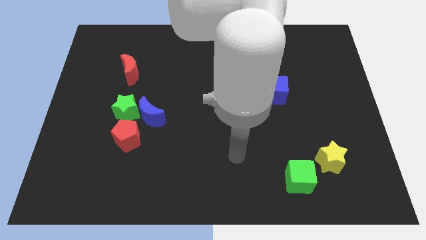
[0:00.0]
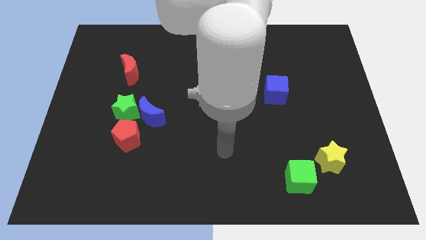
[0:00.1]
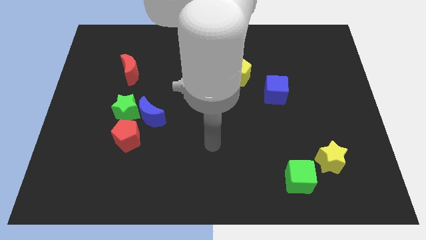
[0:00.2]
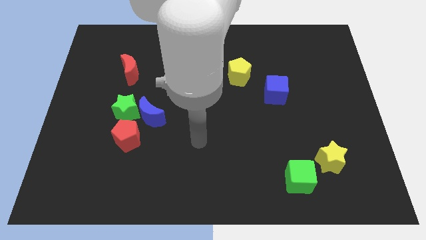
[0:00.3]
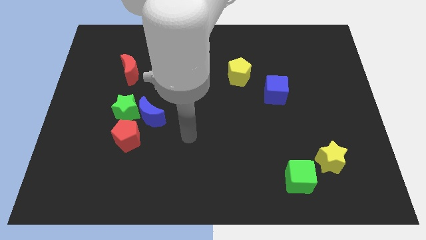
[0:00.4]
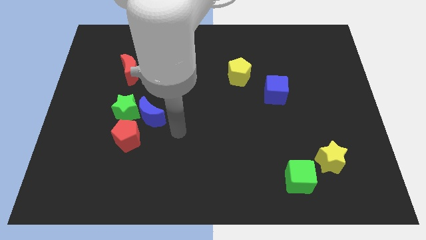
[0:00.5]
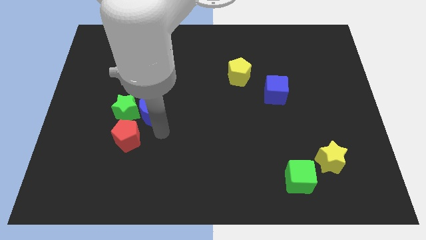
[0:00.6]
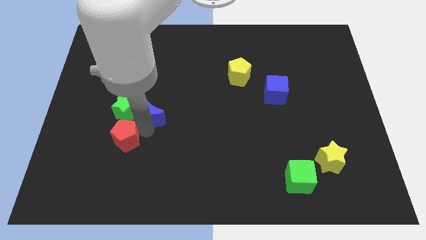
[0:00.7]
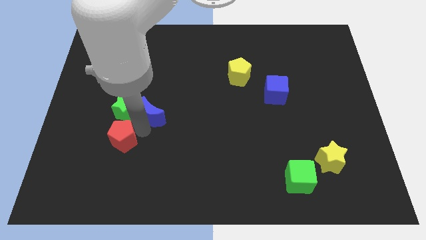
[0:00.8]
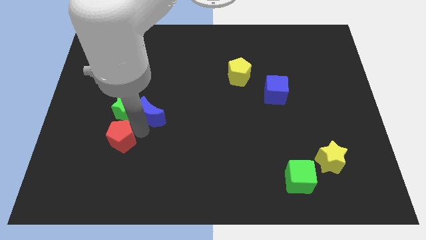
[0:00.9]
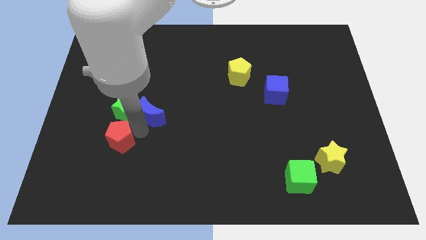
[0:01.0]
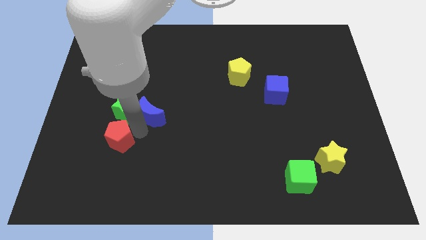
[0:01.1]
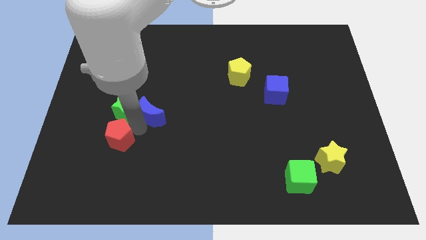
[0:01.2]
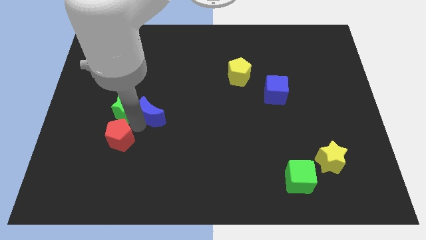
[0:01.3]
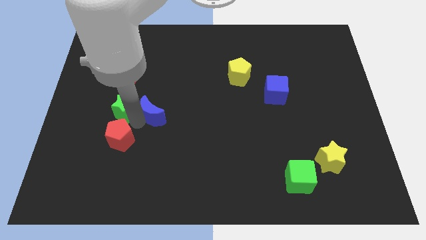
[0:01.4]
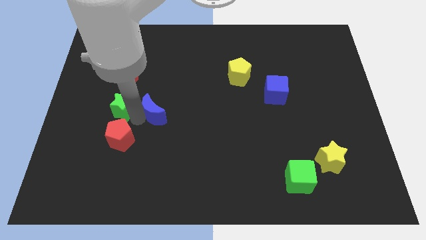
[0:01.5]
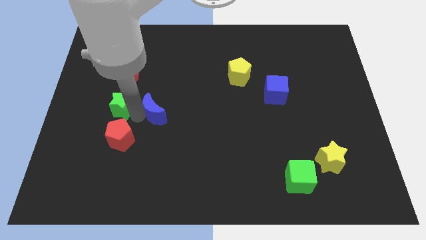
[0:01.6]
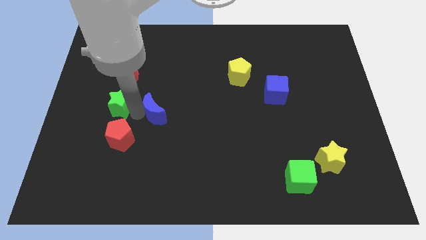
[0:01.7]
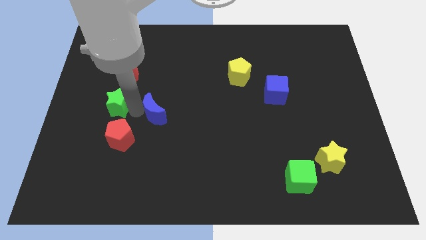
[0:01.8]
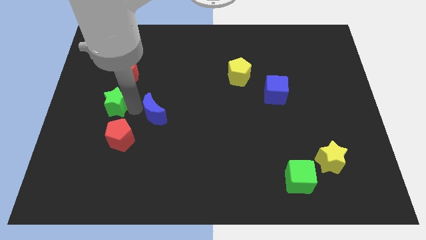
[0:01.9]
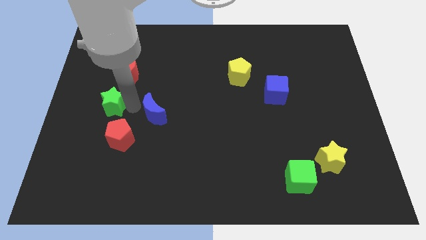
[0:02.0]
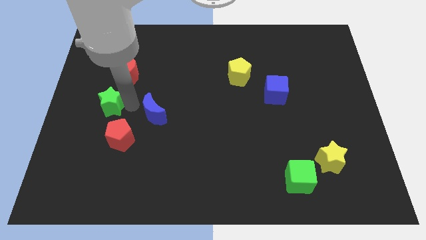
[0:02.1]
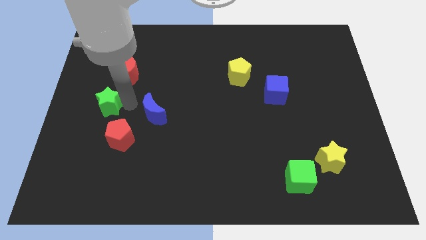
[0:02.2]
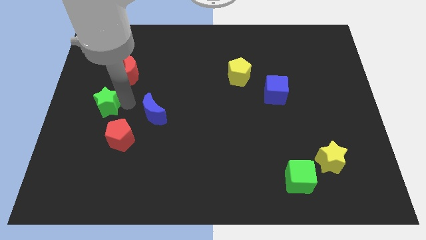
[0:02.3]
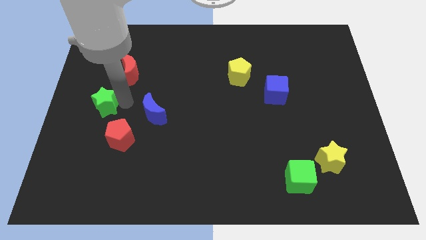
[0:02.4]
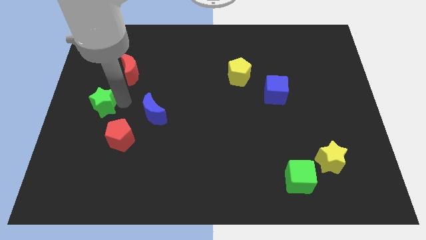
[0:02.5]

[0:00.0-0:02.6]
pull the green star apart from the blue moon and red pentagon

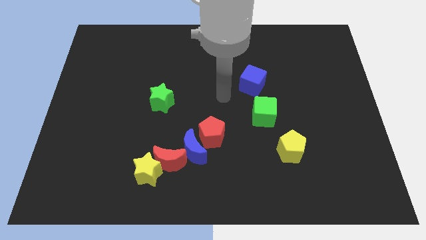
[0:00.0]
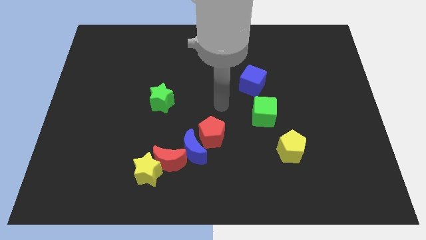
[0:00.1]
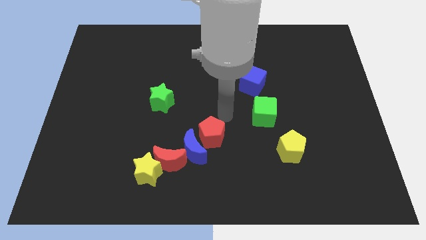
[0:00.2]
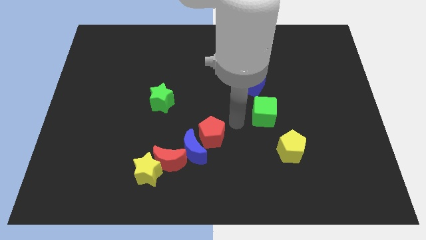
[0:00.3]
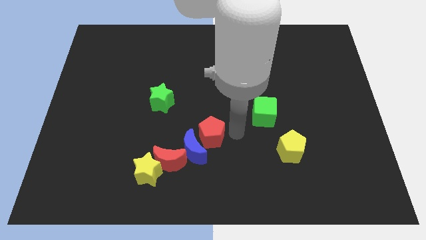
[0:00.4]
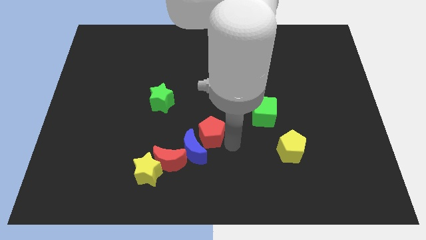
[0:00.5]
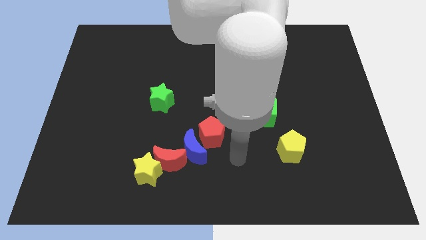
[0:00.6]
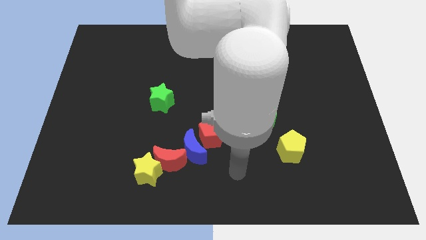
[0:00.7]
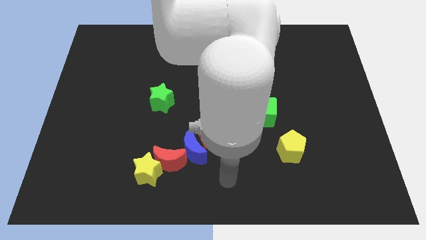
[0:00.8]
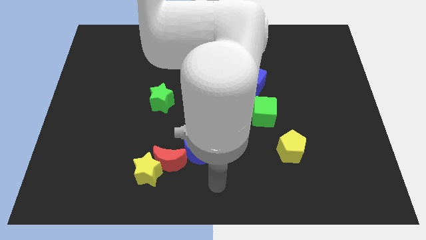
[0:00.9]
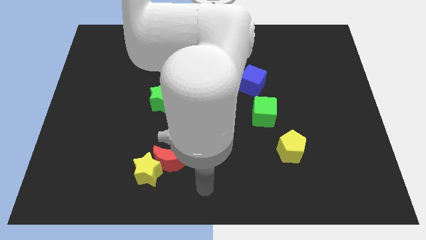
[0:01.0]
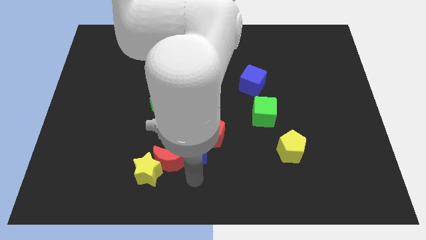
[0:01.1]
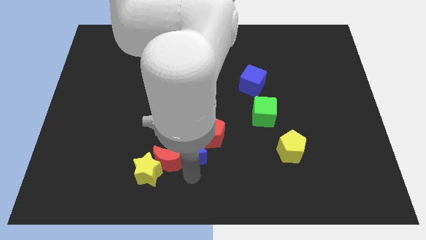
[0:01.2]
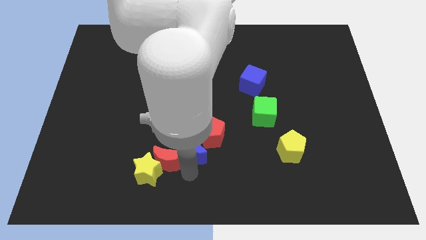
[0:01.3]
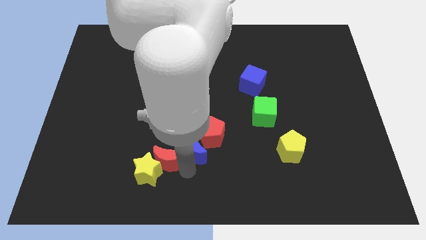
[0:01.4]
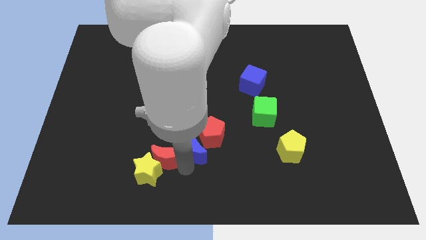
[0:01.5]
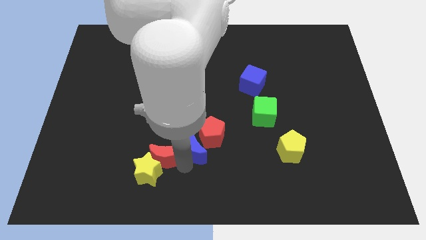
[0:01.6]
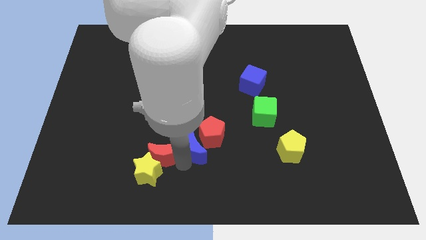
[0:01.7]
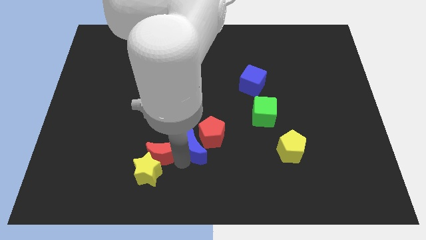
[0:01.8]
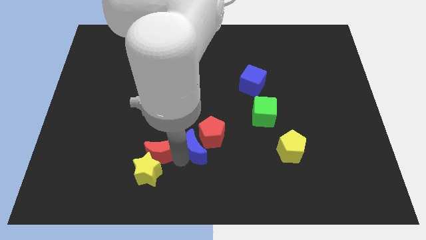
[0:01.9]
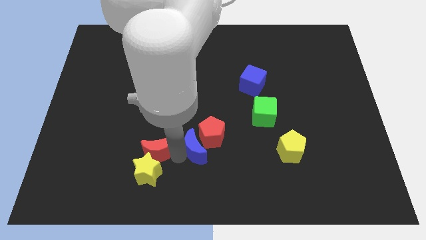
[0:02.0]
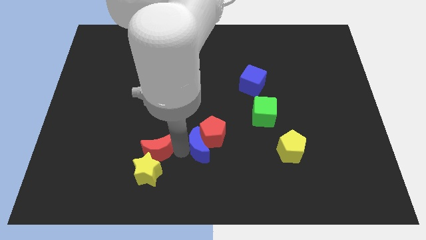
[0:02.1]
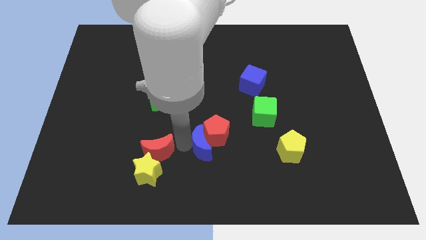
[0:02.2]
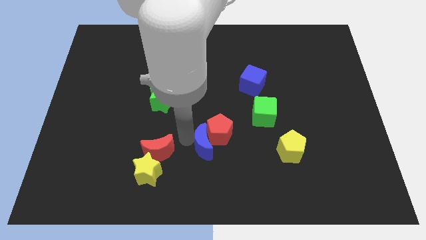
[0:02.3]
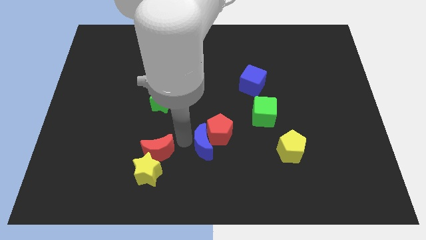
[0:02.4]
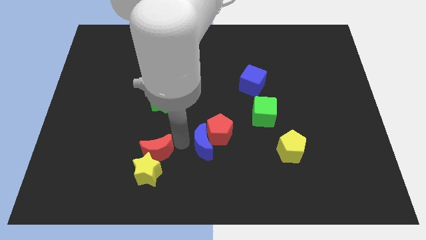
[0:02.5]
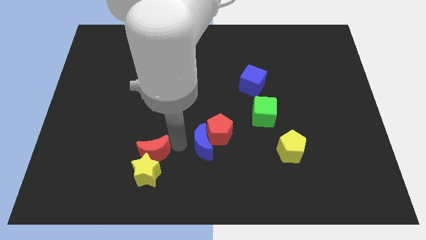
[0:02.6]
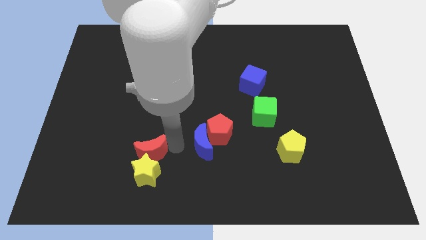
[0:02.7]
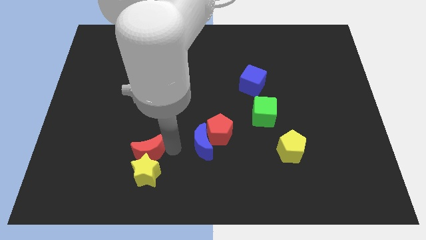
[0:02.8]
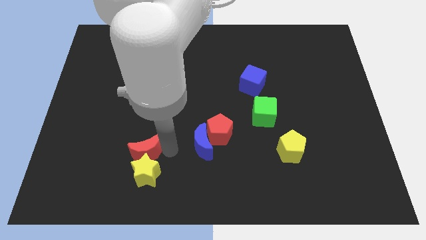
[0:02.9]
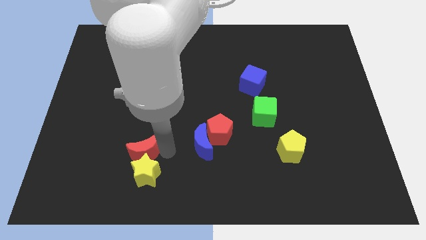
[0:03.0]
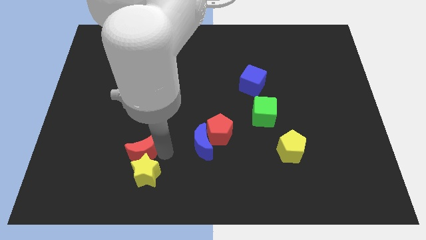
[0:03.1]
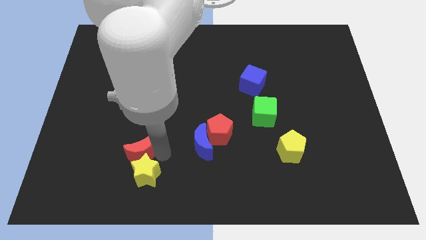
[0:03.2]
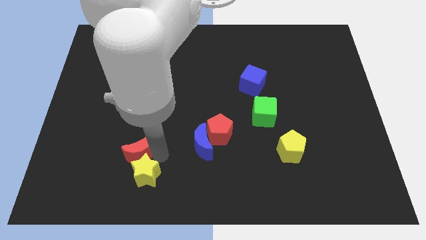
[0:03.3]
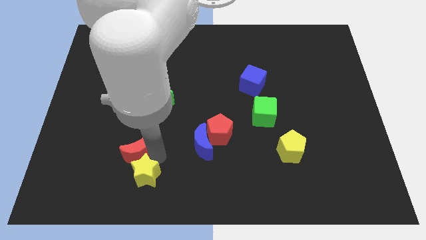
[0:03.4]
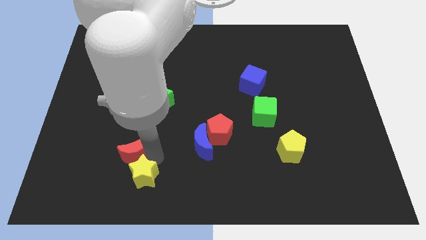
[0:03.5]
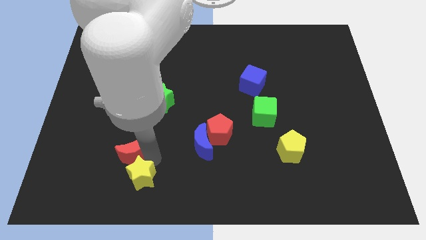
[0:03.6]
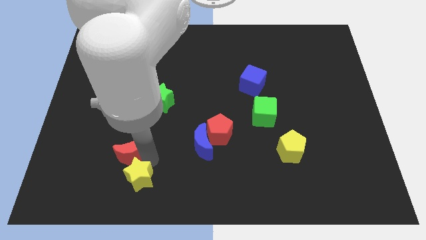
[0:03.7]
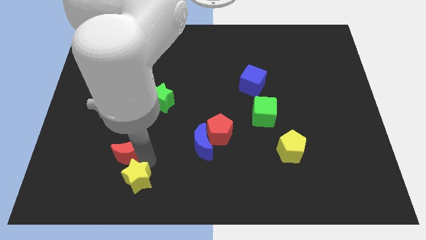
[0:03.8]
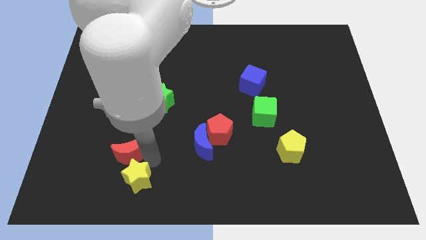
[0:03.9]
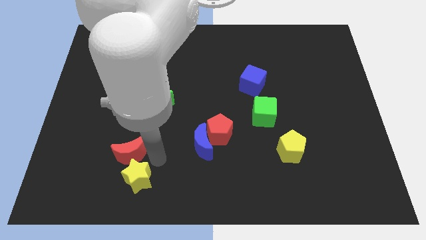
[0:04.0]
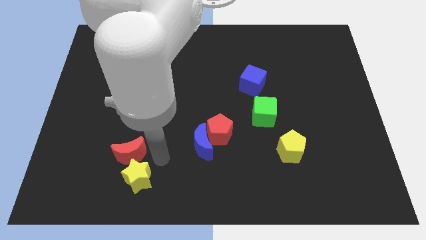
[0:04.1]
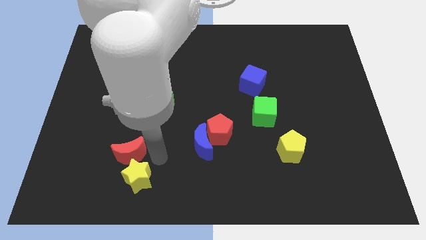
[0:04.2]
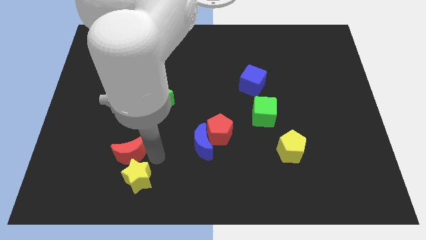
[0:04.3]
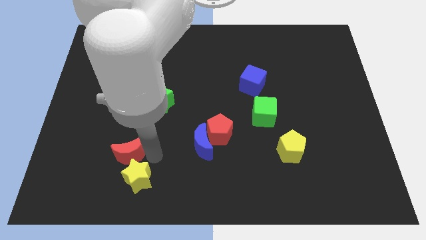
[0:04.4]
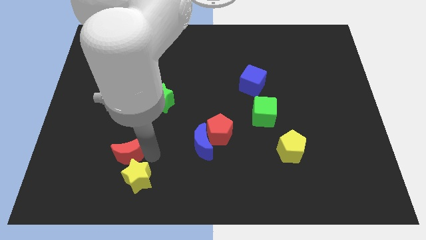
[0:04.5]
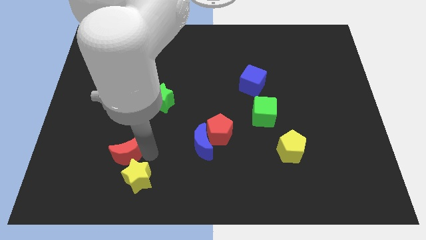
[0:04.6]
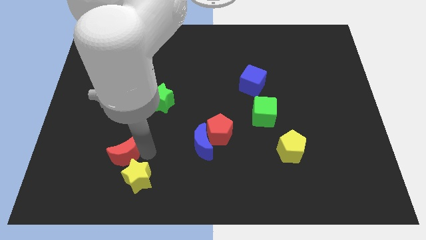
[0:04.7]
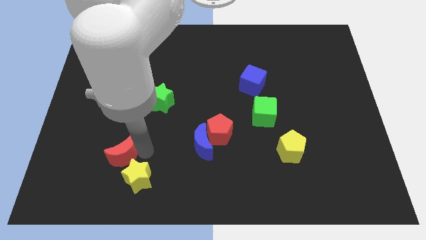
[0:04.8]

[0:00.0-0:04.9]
pull the red moon apart from the yellow star and blue moon

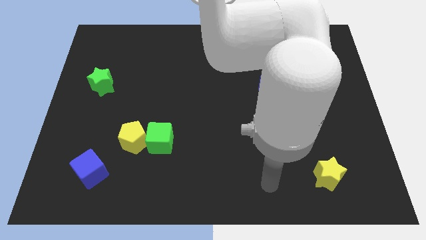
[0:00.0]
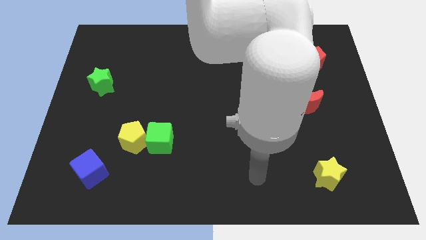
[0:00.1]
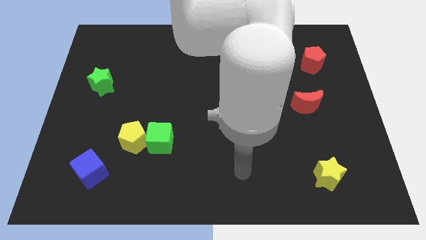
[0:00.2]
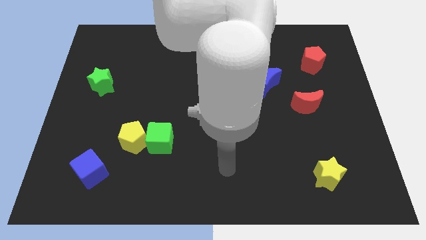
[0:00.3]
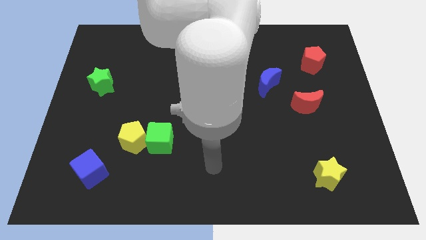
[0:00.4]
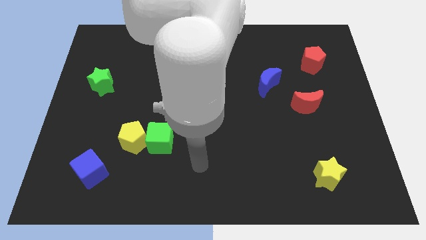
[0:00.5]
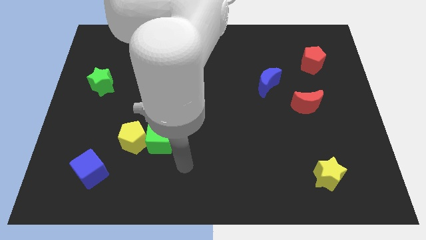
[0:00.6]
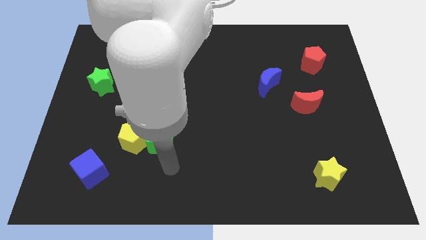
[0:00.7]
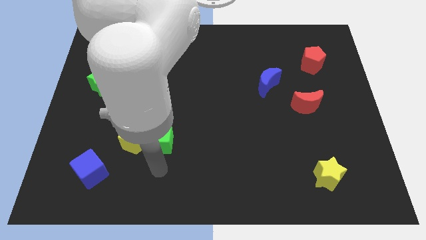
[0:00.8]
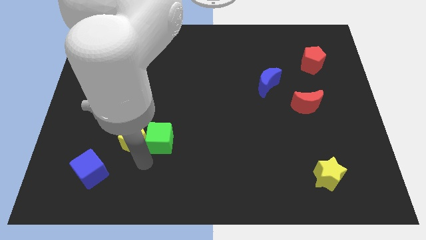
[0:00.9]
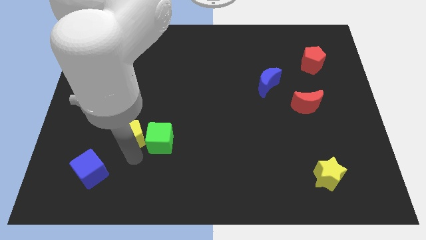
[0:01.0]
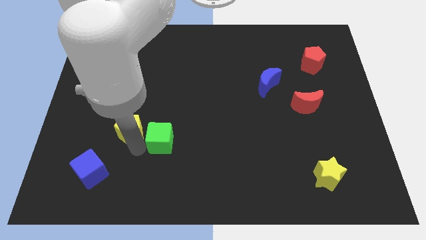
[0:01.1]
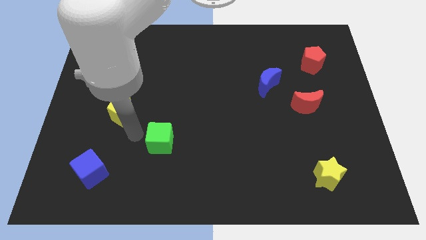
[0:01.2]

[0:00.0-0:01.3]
pull the green cube apart from the yellow pentagon

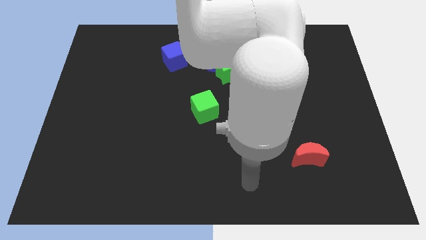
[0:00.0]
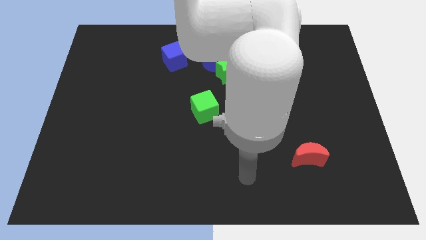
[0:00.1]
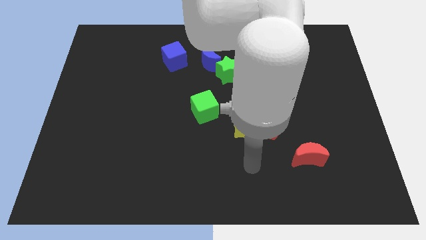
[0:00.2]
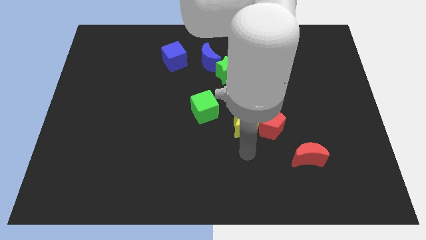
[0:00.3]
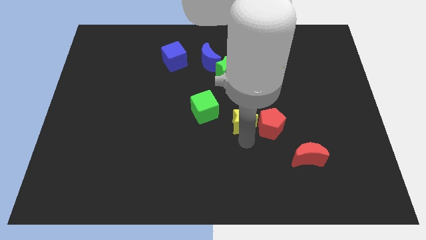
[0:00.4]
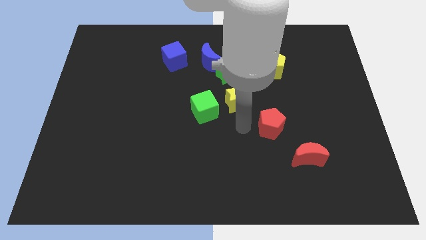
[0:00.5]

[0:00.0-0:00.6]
pull the red pentagon apart from the yellow star
